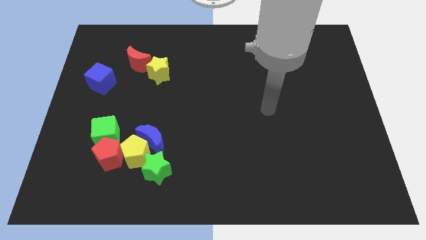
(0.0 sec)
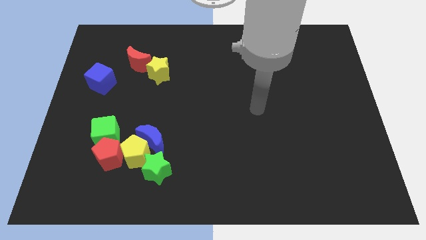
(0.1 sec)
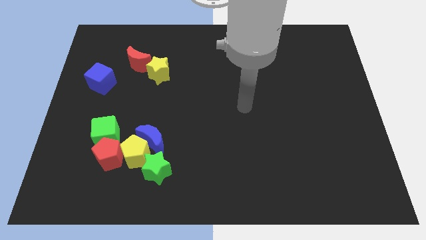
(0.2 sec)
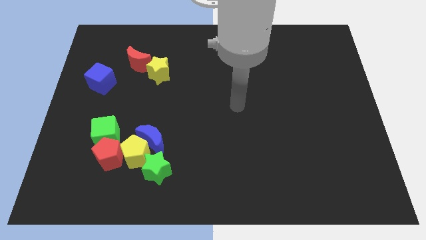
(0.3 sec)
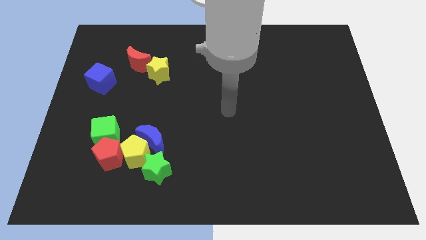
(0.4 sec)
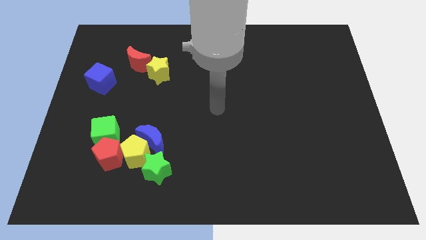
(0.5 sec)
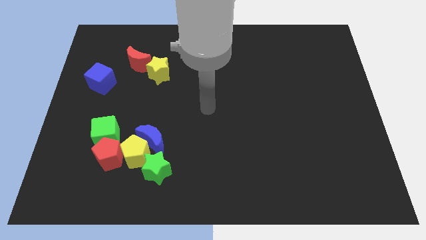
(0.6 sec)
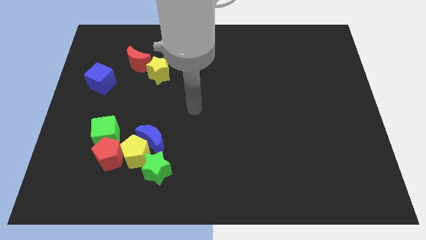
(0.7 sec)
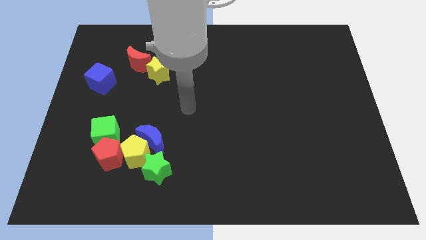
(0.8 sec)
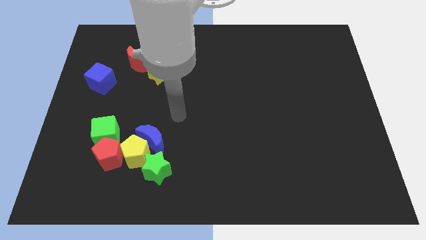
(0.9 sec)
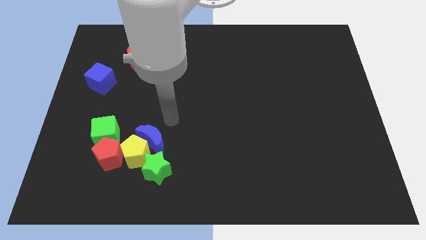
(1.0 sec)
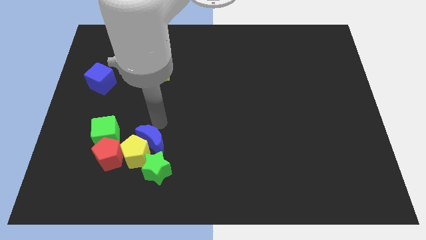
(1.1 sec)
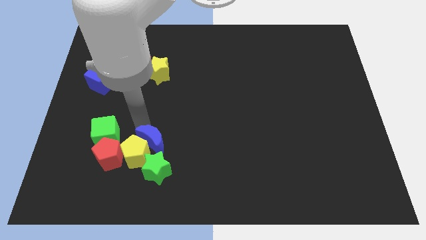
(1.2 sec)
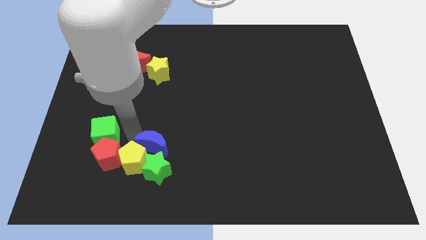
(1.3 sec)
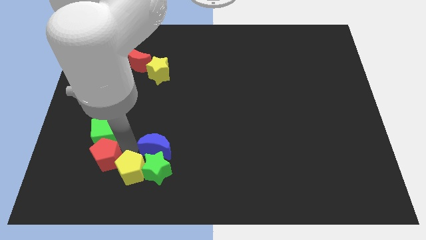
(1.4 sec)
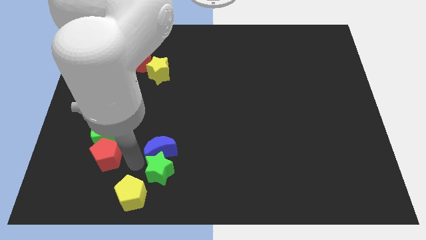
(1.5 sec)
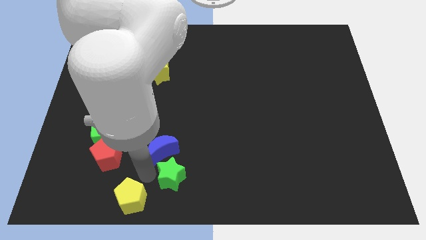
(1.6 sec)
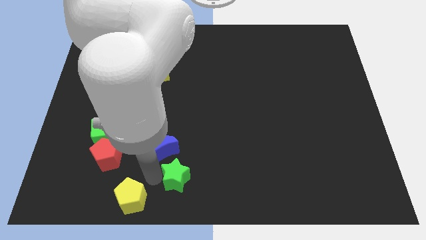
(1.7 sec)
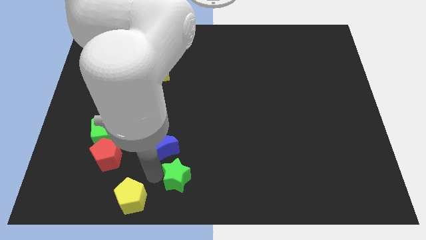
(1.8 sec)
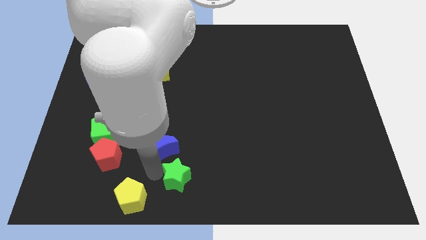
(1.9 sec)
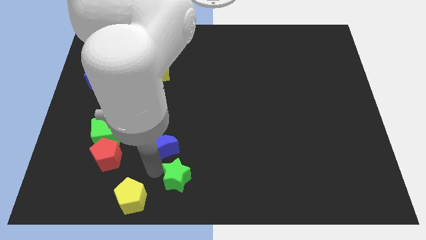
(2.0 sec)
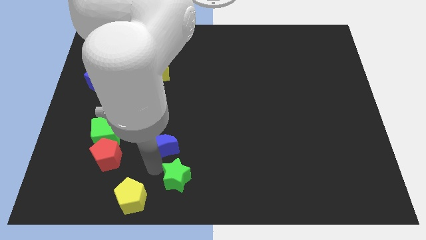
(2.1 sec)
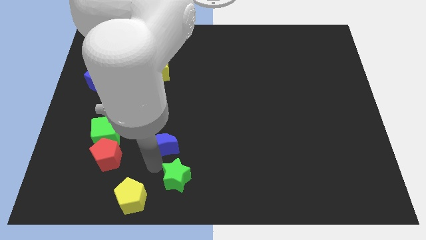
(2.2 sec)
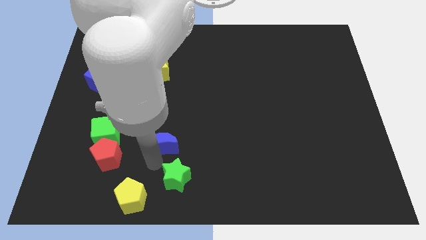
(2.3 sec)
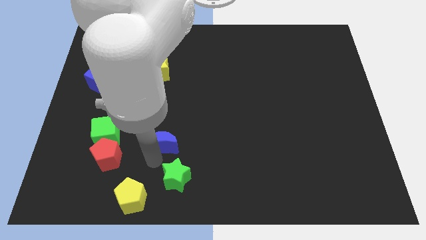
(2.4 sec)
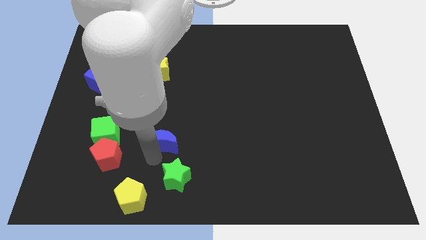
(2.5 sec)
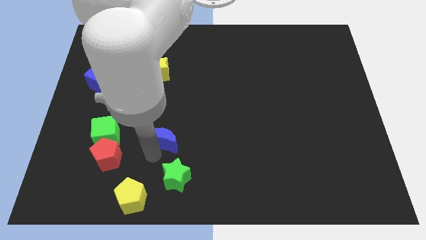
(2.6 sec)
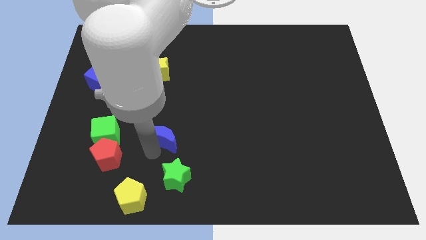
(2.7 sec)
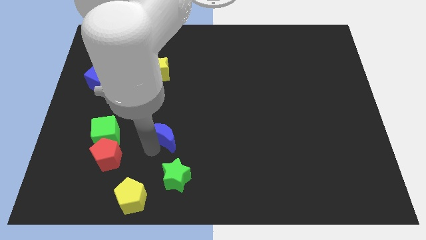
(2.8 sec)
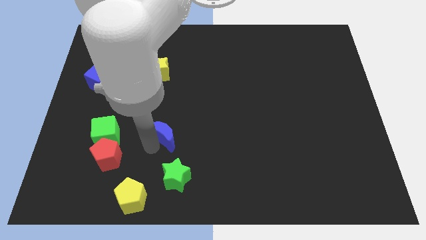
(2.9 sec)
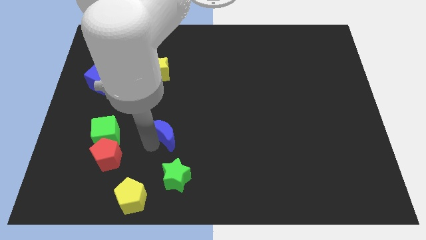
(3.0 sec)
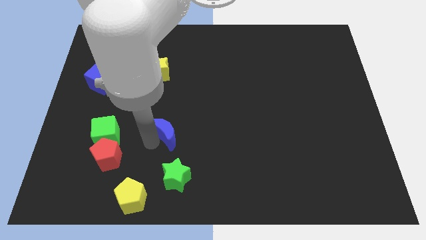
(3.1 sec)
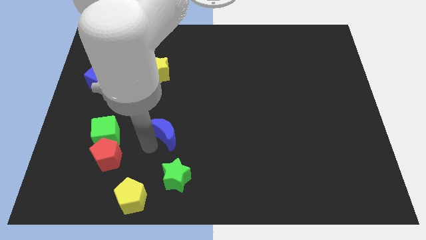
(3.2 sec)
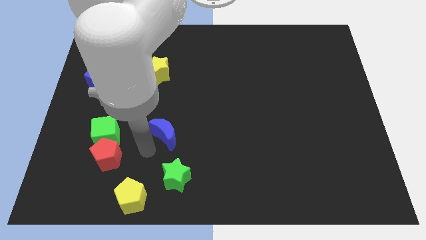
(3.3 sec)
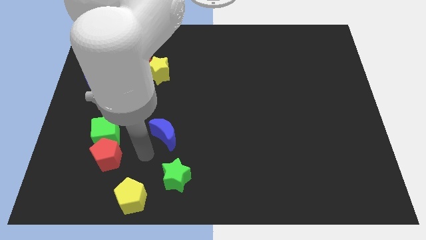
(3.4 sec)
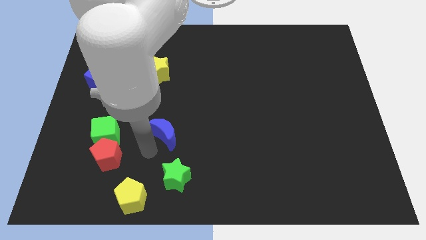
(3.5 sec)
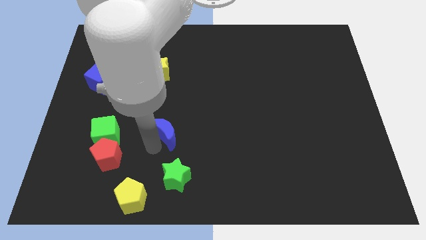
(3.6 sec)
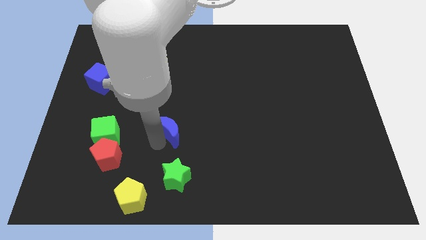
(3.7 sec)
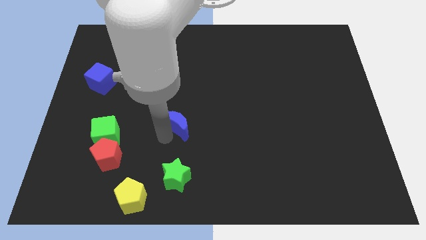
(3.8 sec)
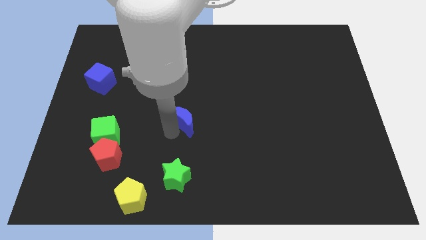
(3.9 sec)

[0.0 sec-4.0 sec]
push the blue moon a bit up and then right

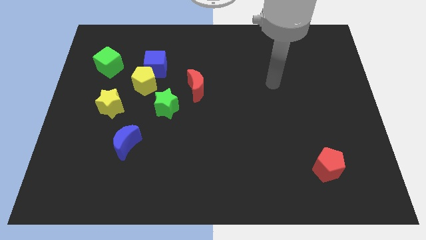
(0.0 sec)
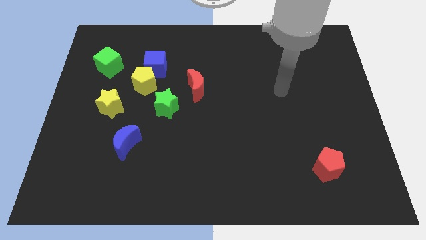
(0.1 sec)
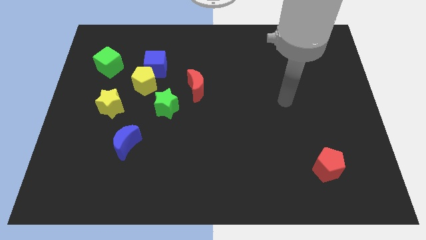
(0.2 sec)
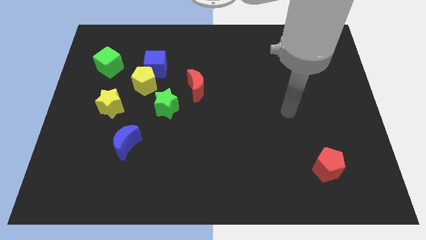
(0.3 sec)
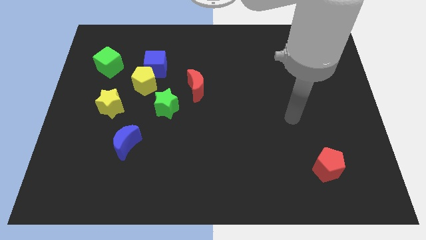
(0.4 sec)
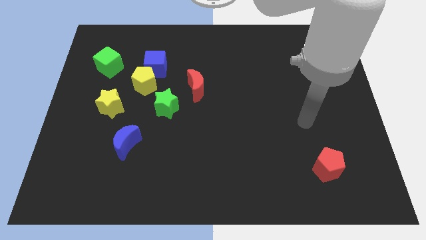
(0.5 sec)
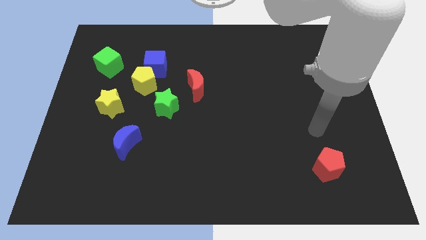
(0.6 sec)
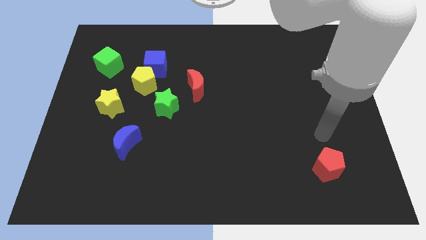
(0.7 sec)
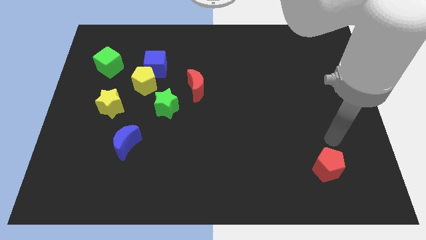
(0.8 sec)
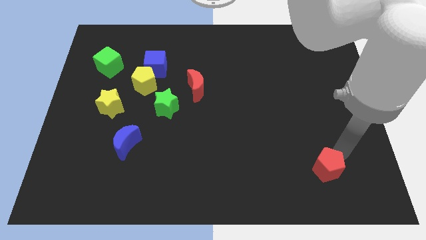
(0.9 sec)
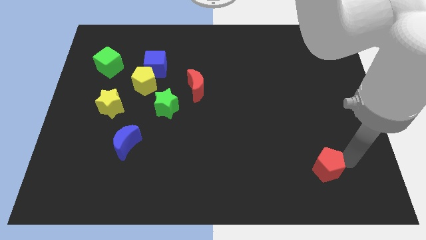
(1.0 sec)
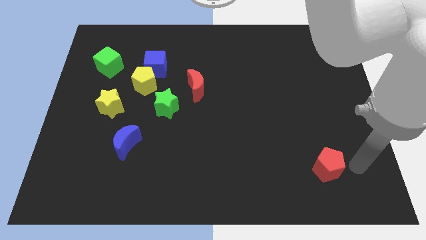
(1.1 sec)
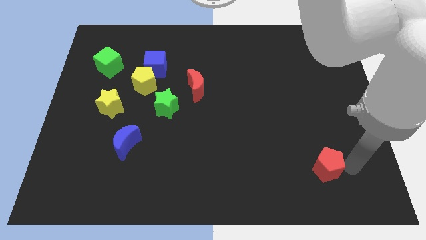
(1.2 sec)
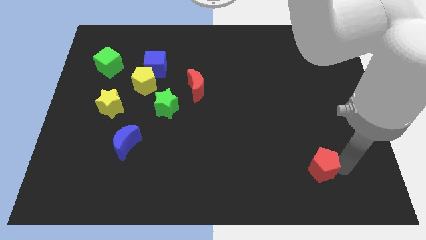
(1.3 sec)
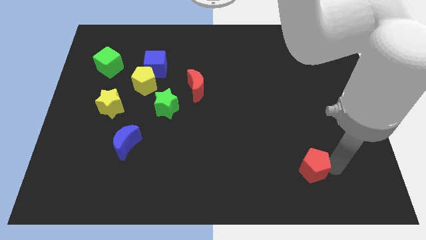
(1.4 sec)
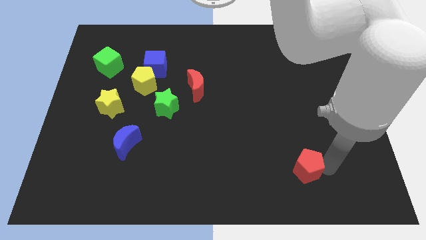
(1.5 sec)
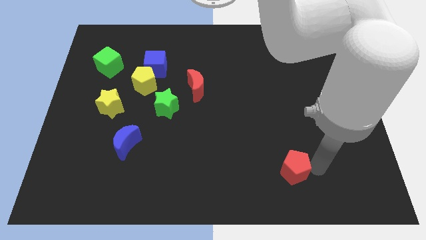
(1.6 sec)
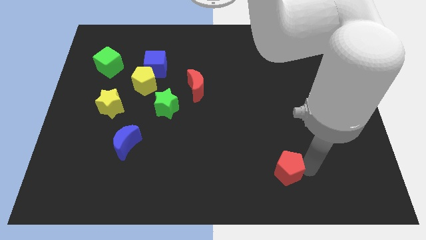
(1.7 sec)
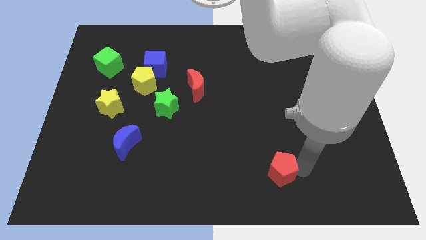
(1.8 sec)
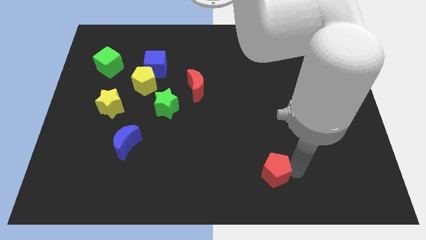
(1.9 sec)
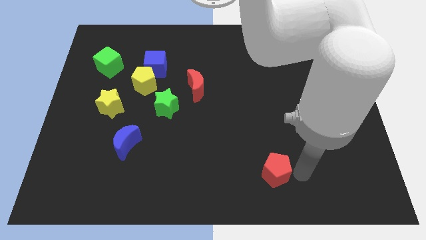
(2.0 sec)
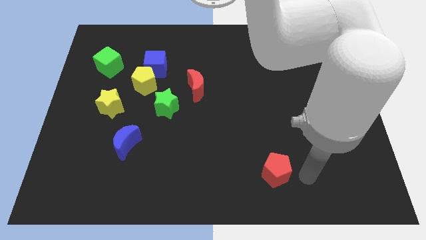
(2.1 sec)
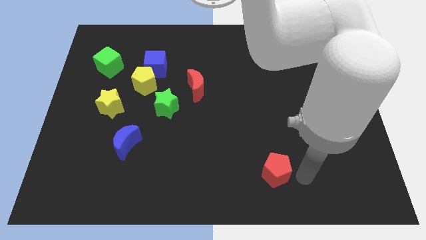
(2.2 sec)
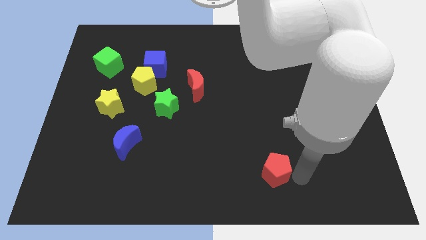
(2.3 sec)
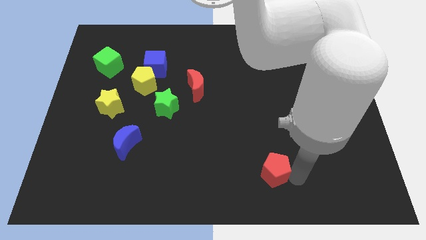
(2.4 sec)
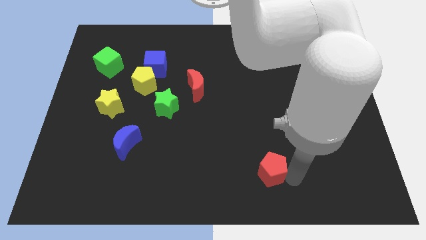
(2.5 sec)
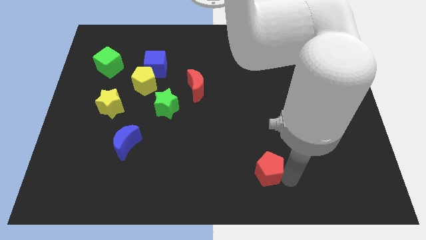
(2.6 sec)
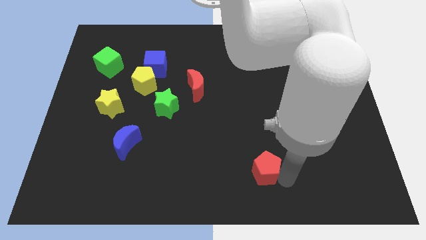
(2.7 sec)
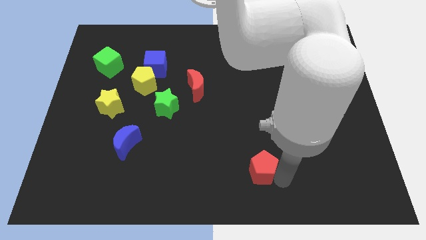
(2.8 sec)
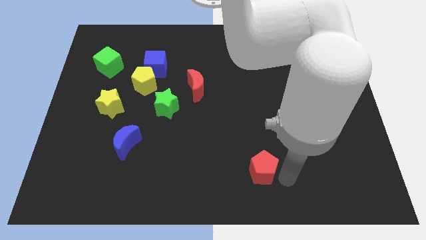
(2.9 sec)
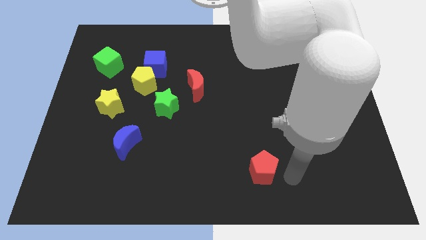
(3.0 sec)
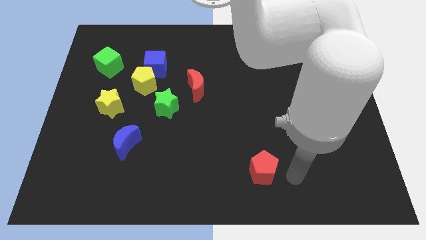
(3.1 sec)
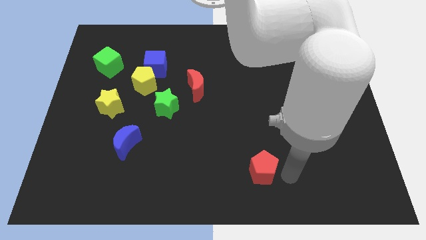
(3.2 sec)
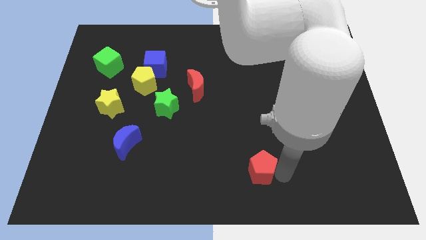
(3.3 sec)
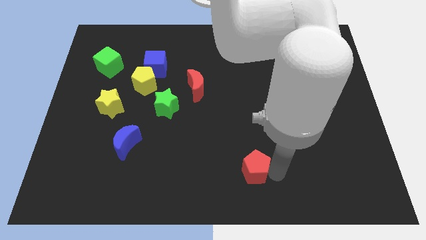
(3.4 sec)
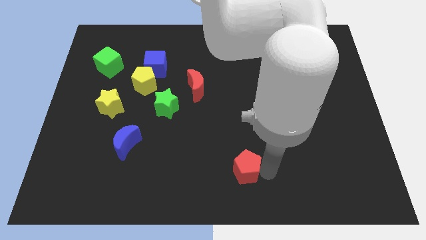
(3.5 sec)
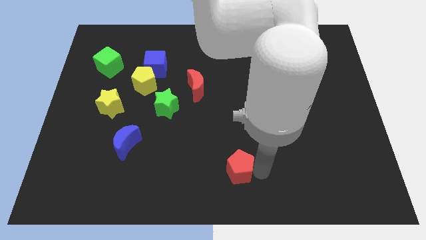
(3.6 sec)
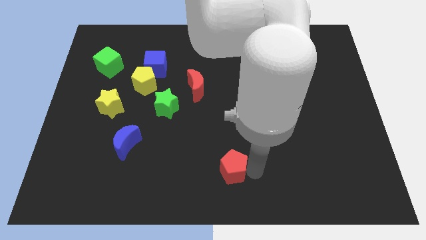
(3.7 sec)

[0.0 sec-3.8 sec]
slide the red pentagon to the left
